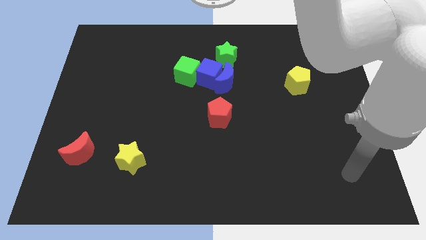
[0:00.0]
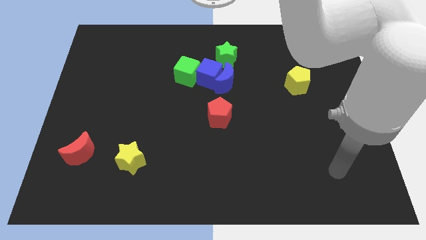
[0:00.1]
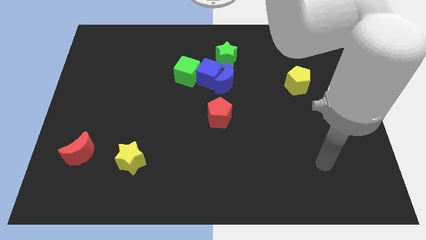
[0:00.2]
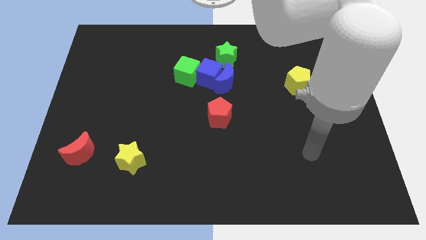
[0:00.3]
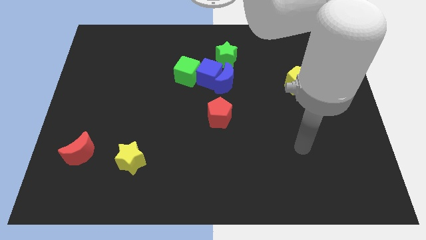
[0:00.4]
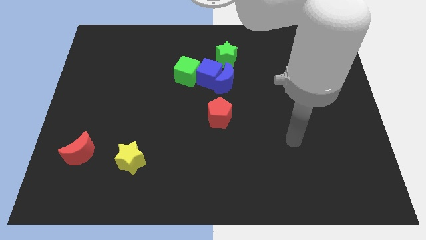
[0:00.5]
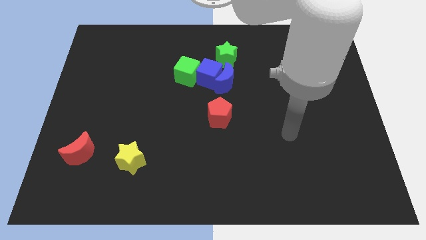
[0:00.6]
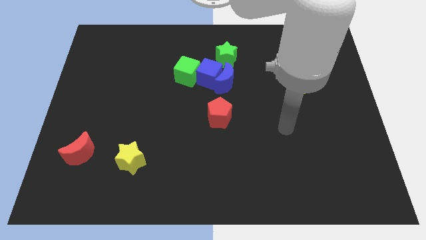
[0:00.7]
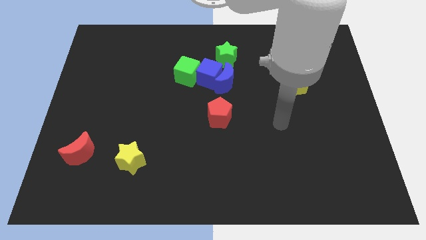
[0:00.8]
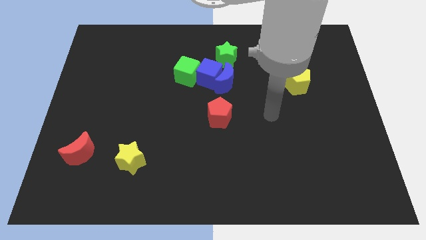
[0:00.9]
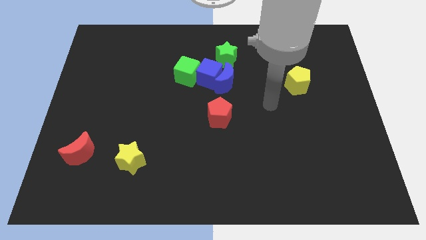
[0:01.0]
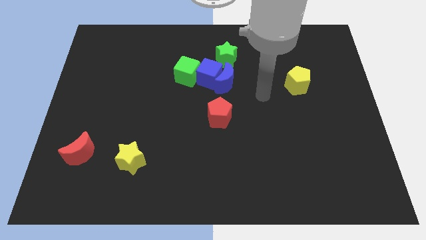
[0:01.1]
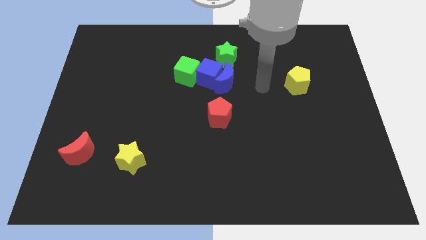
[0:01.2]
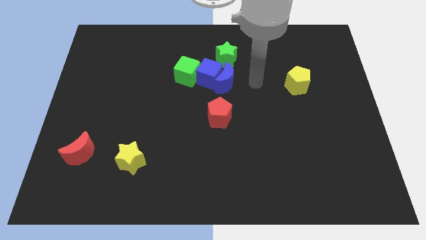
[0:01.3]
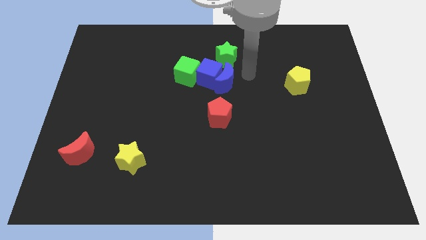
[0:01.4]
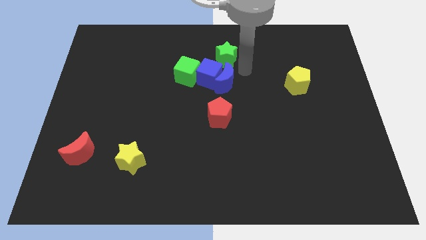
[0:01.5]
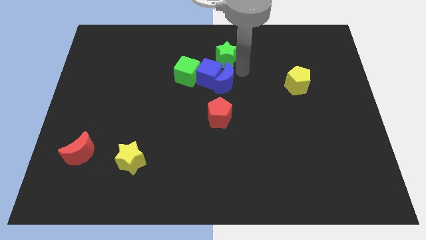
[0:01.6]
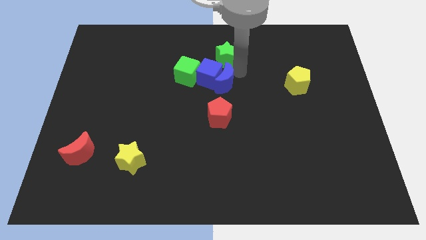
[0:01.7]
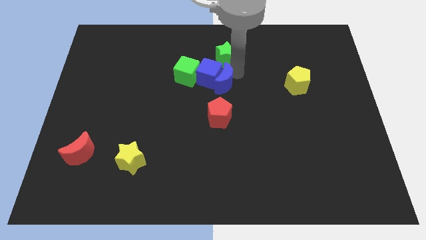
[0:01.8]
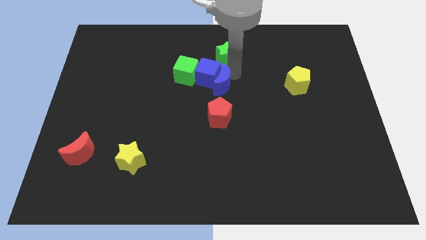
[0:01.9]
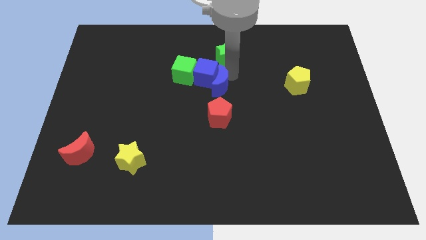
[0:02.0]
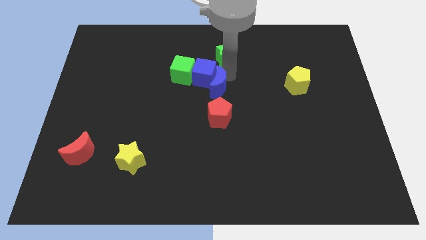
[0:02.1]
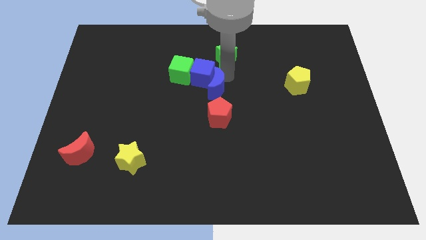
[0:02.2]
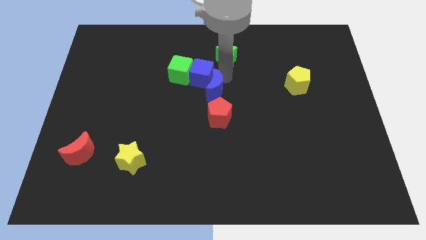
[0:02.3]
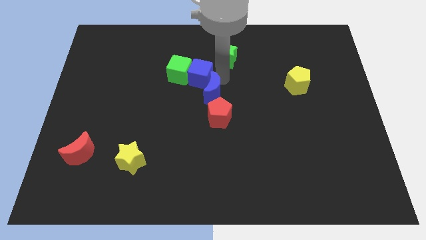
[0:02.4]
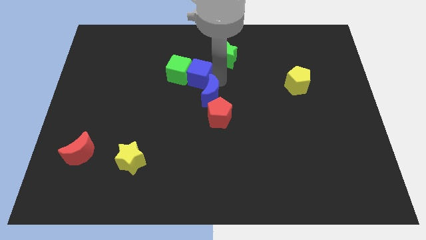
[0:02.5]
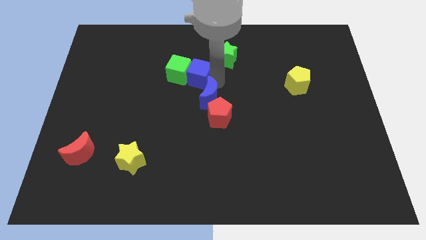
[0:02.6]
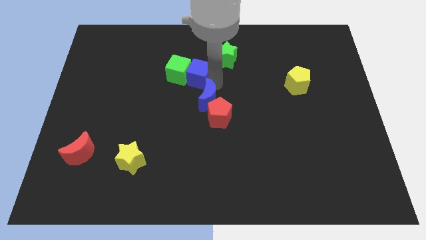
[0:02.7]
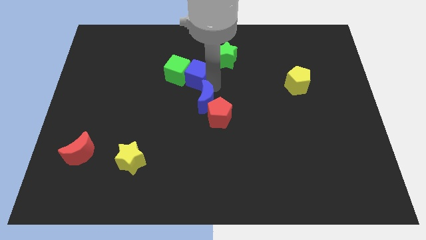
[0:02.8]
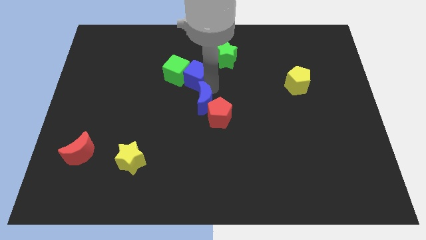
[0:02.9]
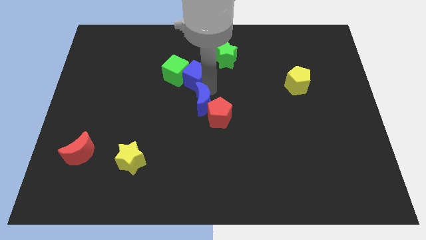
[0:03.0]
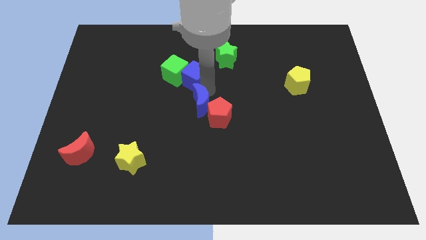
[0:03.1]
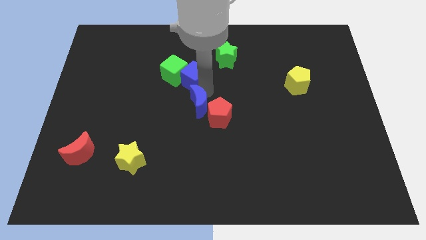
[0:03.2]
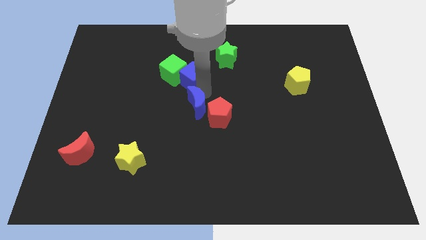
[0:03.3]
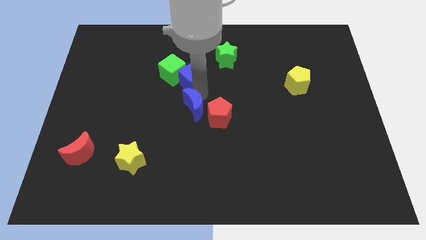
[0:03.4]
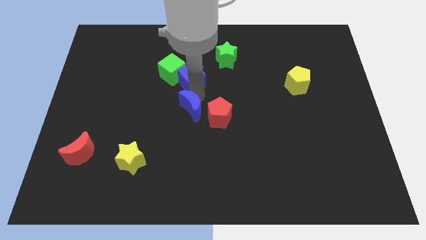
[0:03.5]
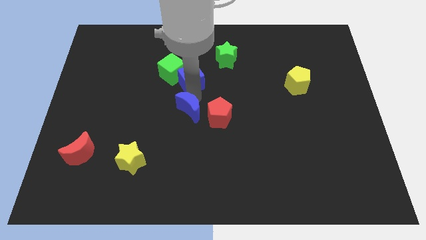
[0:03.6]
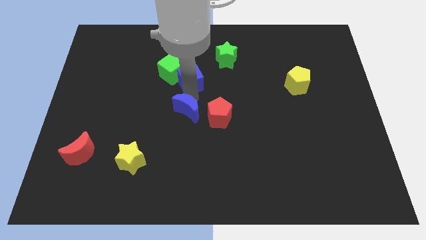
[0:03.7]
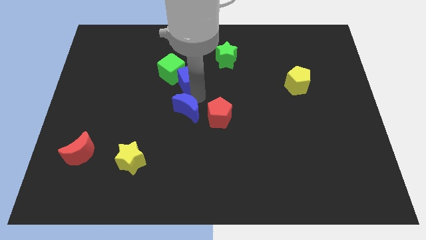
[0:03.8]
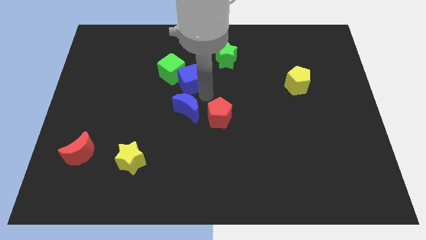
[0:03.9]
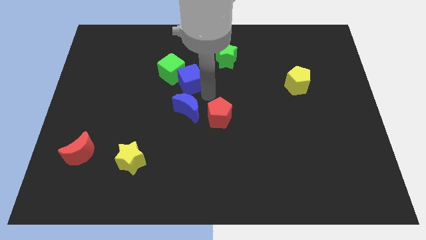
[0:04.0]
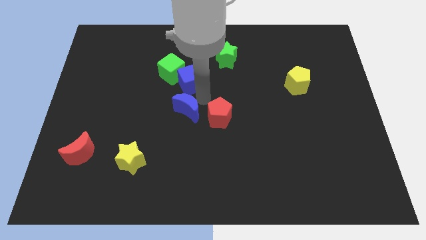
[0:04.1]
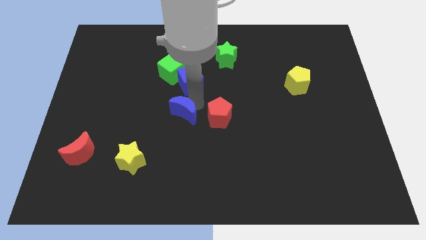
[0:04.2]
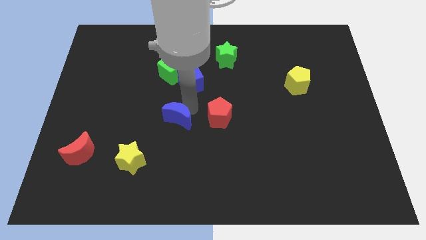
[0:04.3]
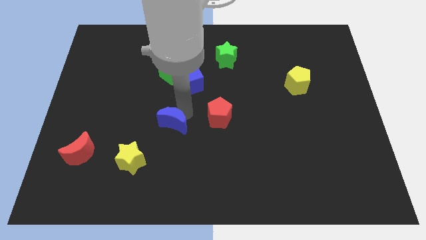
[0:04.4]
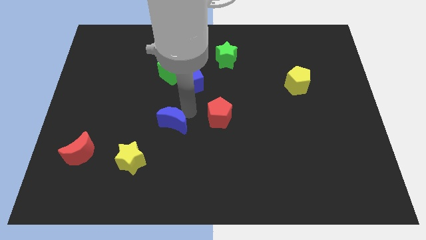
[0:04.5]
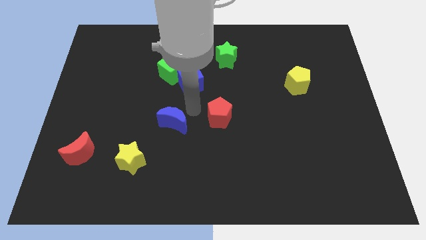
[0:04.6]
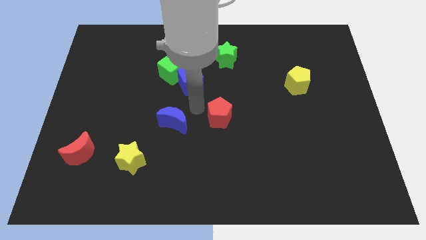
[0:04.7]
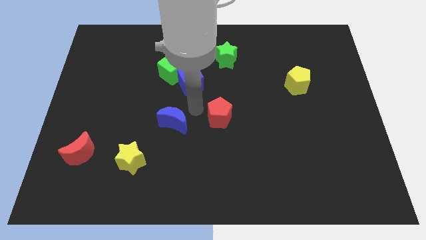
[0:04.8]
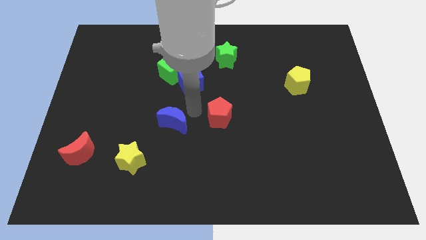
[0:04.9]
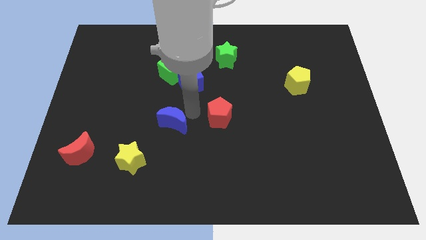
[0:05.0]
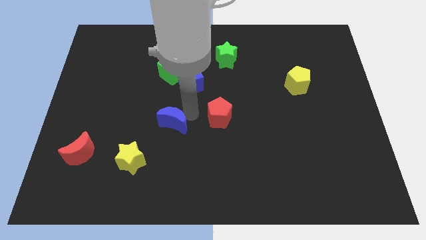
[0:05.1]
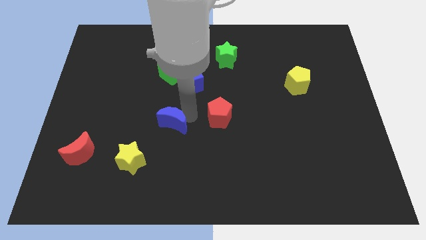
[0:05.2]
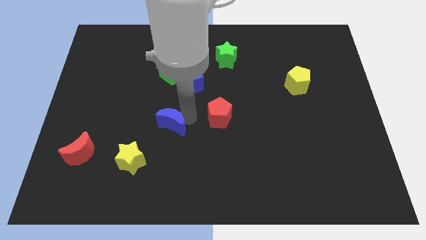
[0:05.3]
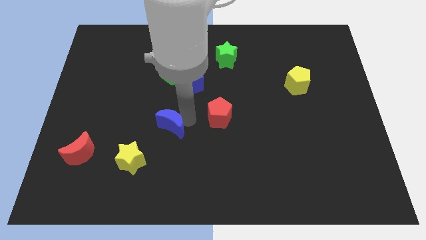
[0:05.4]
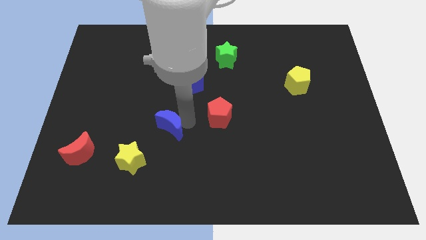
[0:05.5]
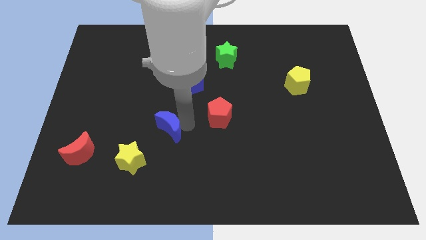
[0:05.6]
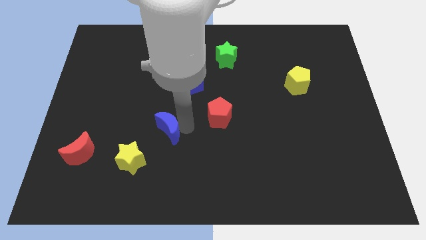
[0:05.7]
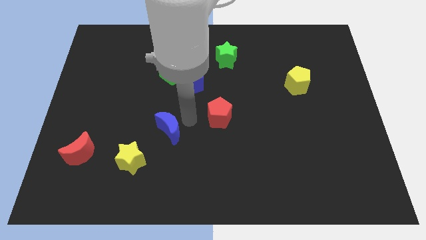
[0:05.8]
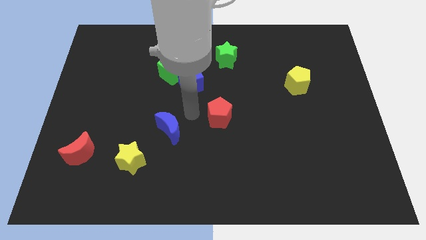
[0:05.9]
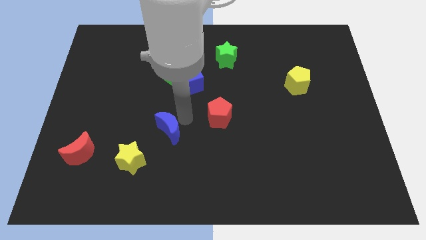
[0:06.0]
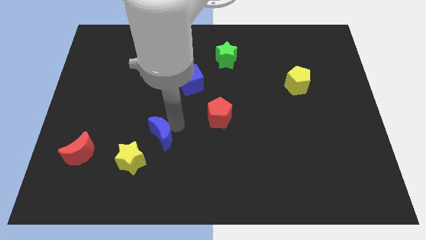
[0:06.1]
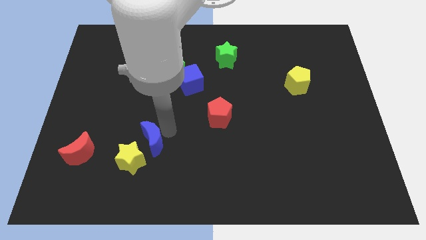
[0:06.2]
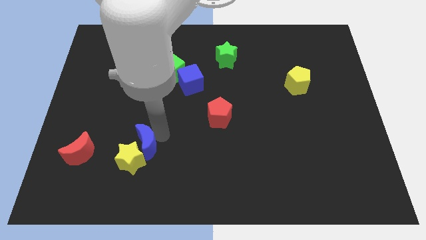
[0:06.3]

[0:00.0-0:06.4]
move the blue moon close to the yellow star

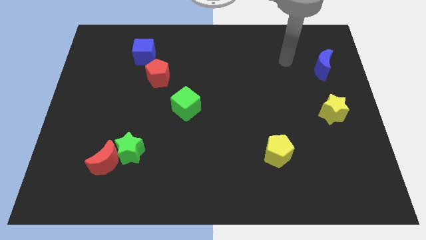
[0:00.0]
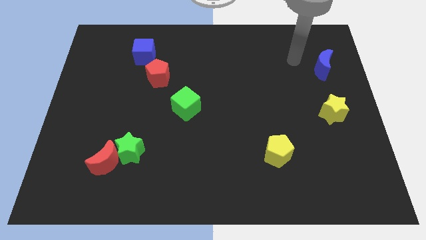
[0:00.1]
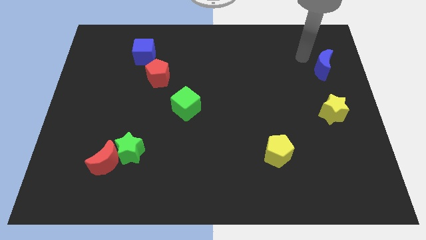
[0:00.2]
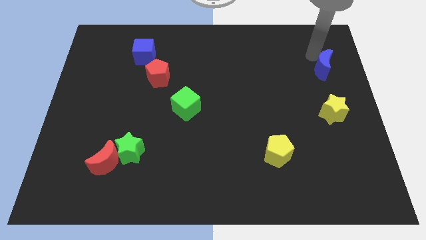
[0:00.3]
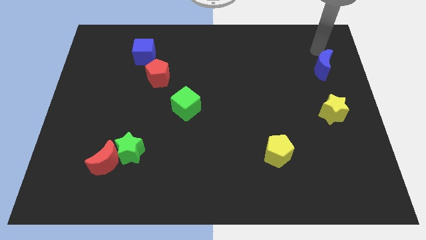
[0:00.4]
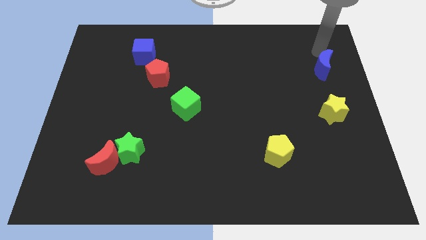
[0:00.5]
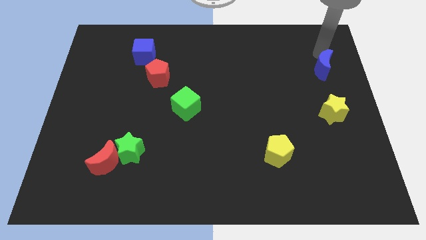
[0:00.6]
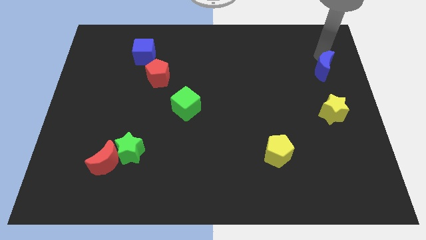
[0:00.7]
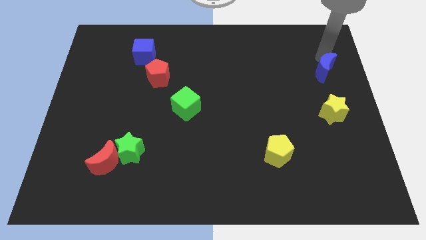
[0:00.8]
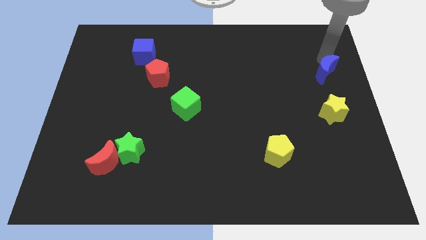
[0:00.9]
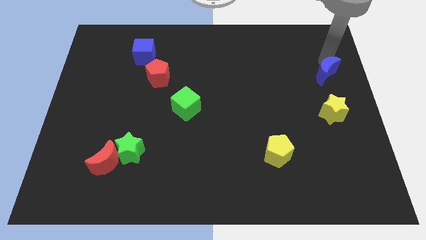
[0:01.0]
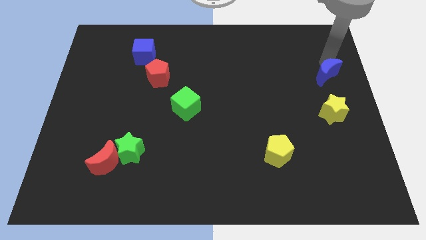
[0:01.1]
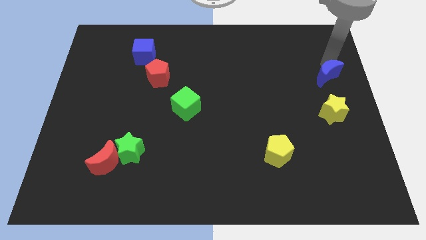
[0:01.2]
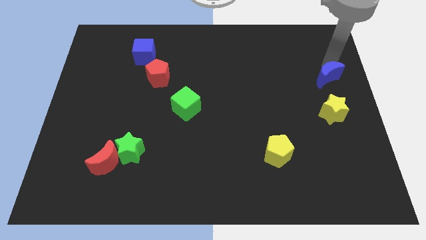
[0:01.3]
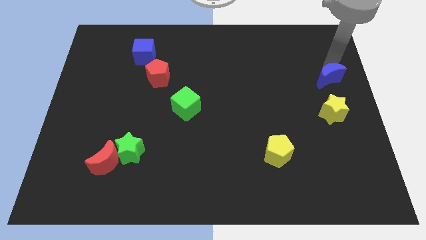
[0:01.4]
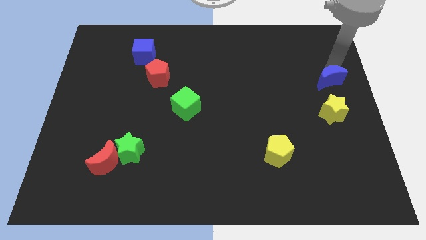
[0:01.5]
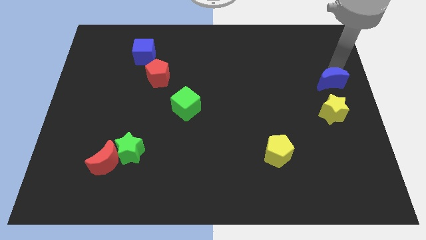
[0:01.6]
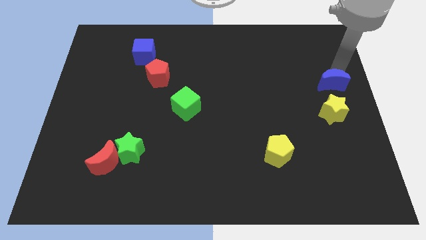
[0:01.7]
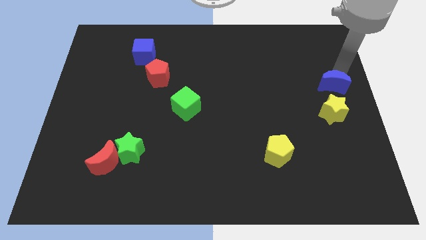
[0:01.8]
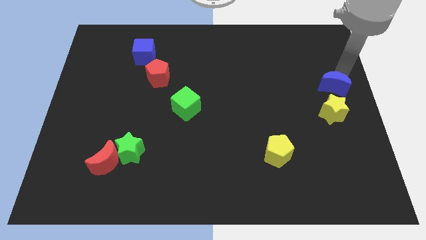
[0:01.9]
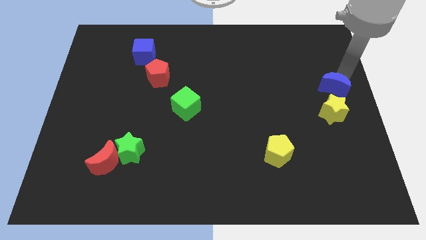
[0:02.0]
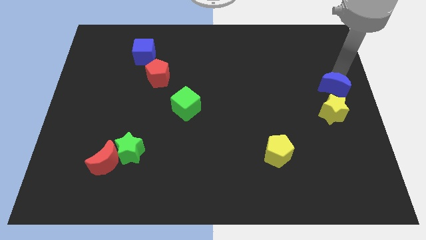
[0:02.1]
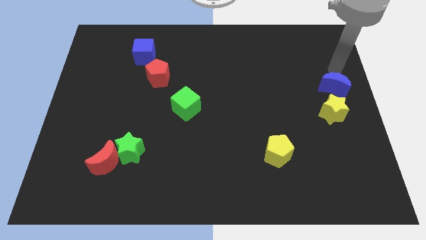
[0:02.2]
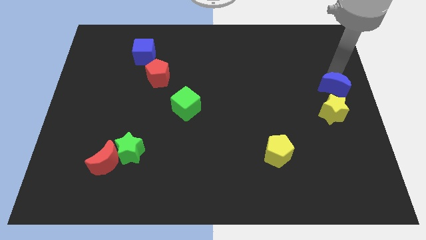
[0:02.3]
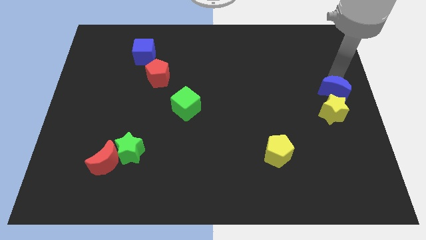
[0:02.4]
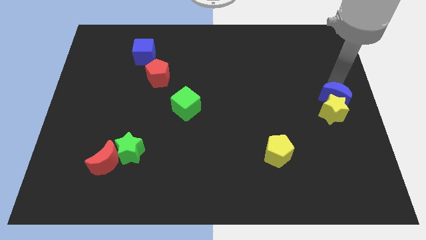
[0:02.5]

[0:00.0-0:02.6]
move the blue moon to the yellow star
